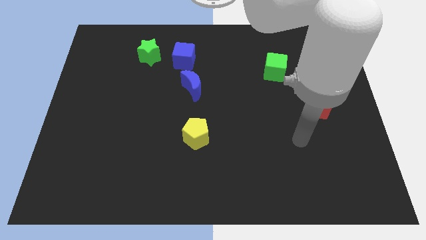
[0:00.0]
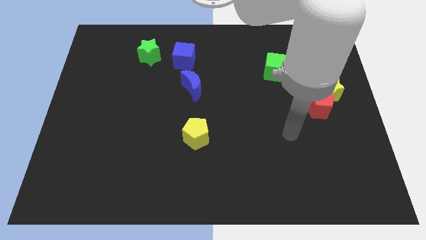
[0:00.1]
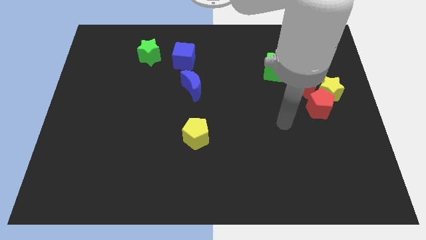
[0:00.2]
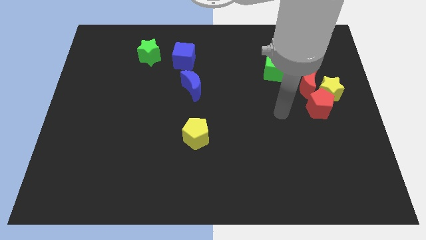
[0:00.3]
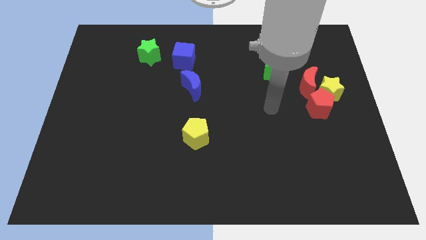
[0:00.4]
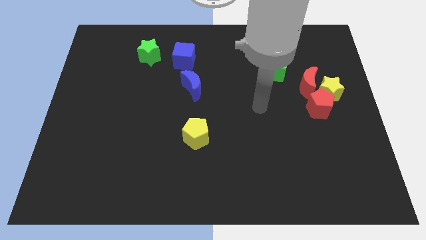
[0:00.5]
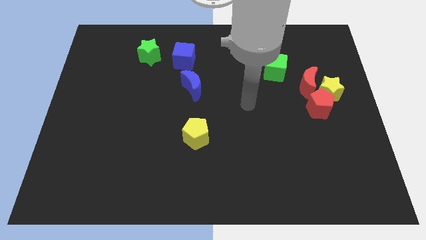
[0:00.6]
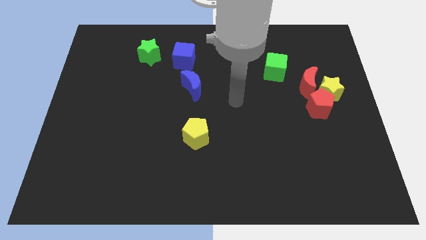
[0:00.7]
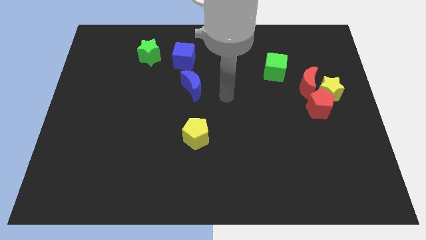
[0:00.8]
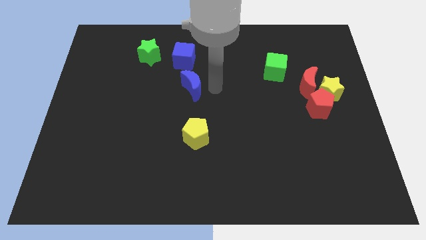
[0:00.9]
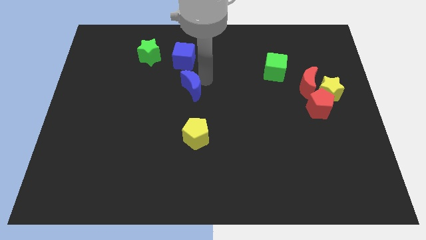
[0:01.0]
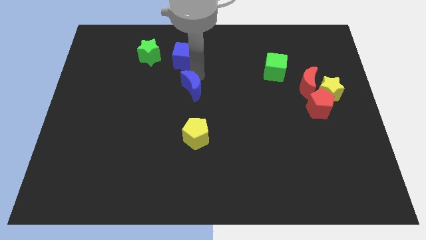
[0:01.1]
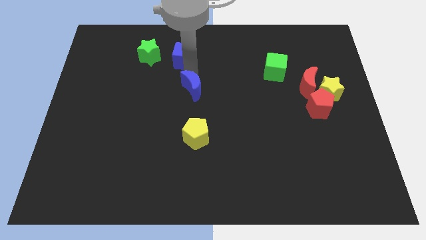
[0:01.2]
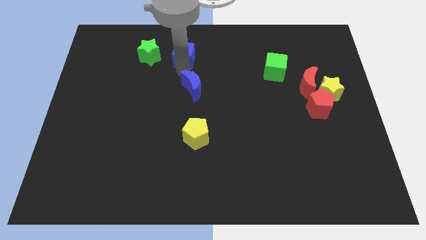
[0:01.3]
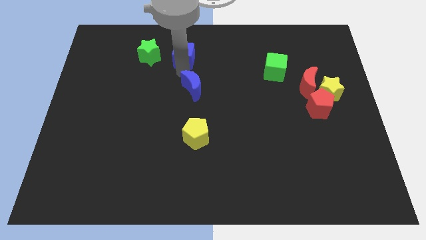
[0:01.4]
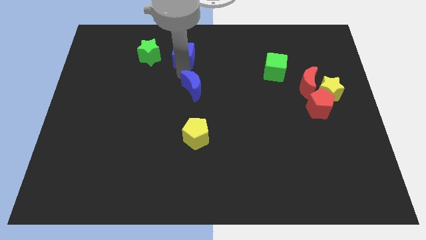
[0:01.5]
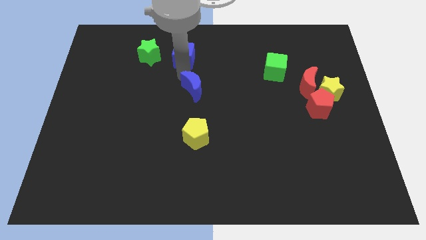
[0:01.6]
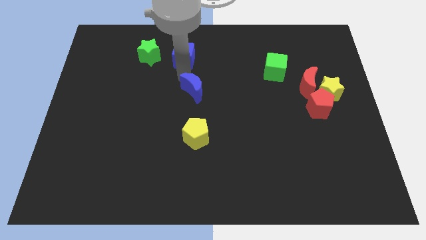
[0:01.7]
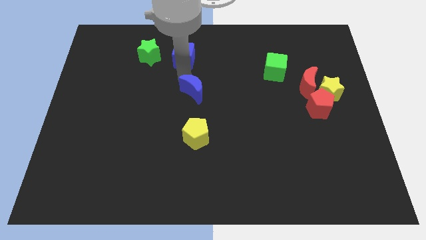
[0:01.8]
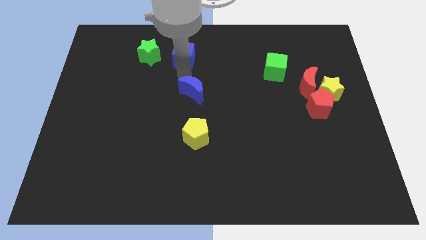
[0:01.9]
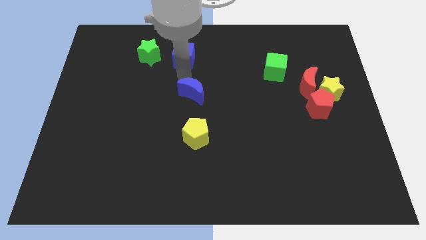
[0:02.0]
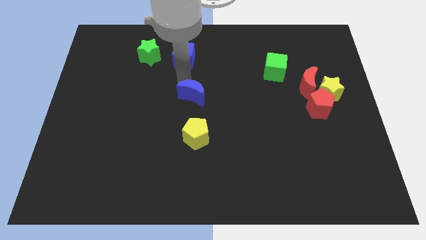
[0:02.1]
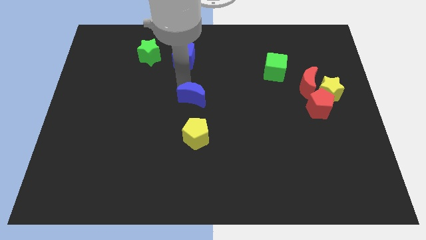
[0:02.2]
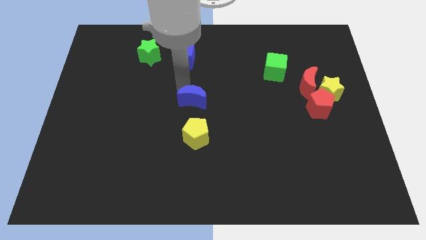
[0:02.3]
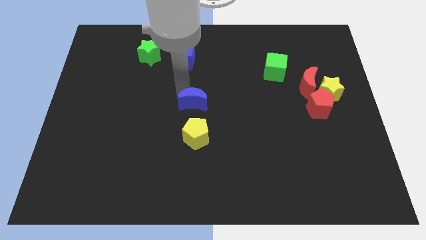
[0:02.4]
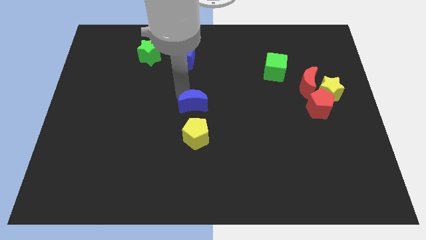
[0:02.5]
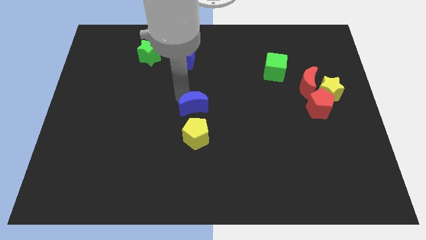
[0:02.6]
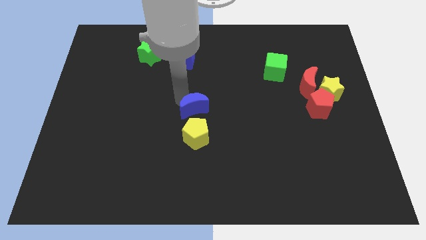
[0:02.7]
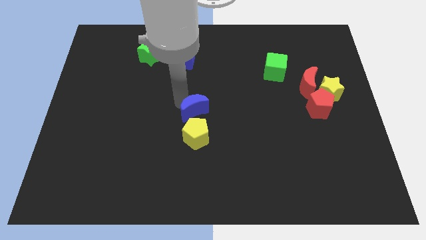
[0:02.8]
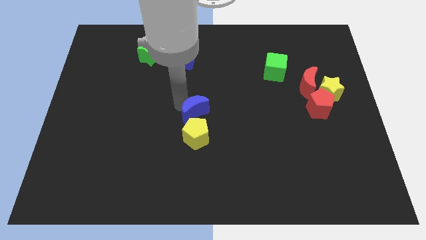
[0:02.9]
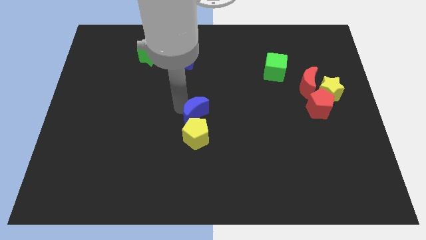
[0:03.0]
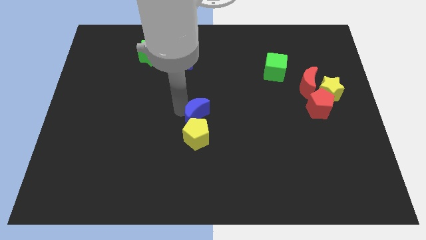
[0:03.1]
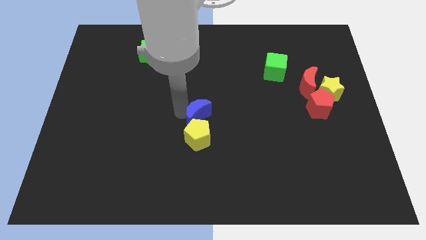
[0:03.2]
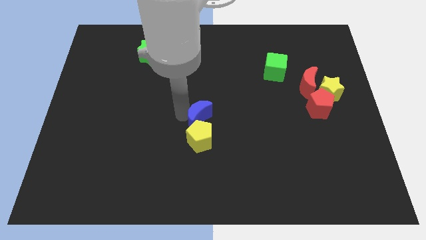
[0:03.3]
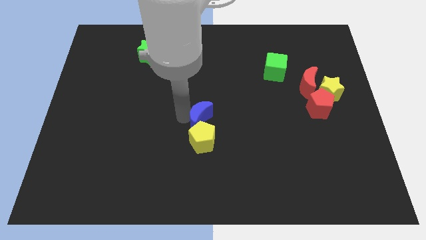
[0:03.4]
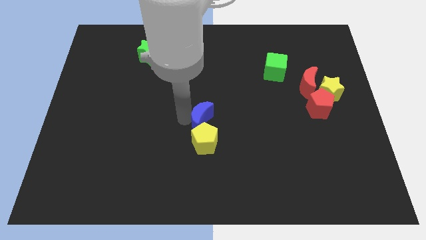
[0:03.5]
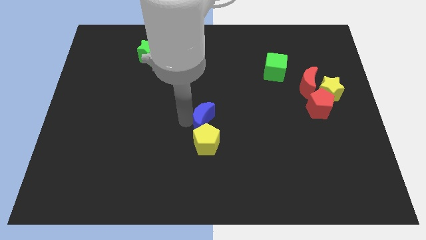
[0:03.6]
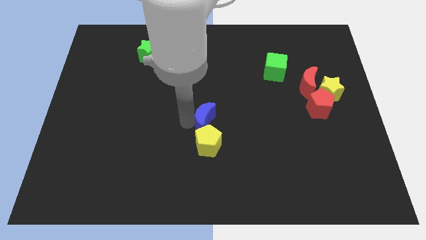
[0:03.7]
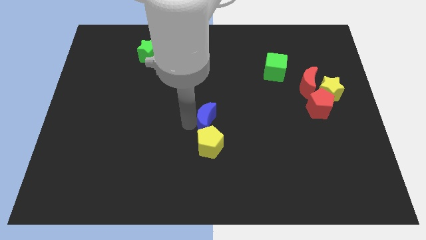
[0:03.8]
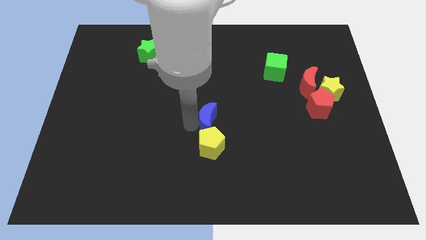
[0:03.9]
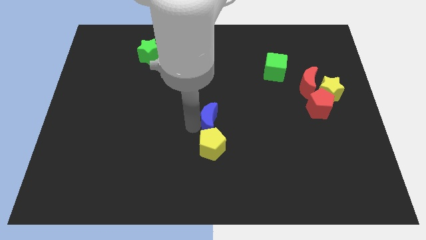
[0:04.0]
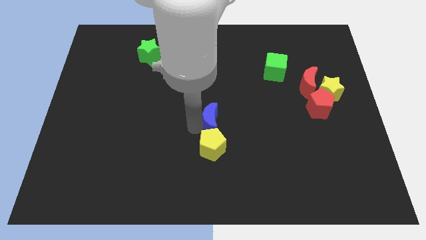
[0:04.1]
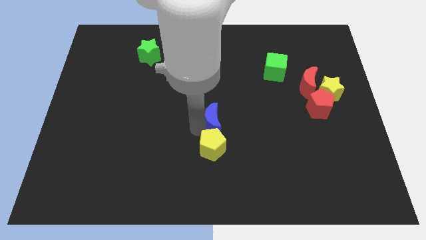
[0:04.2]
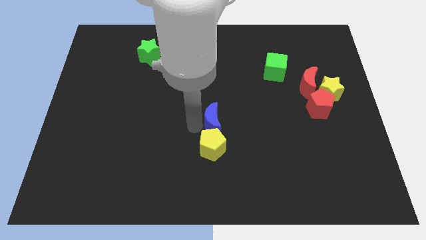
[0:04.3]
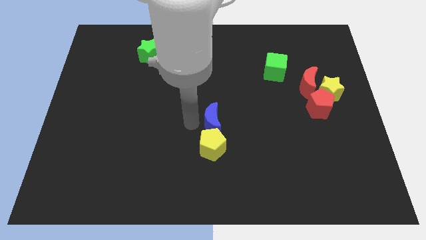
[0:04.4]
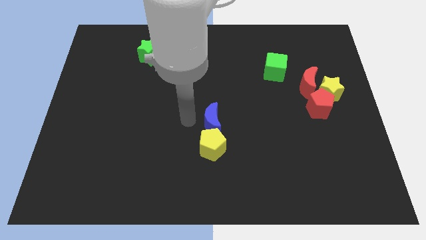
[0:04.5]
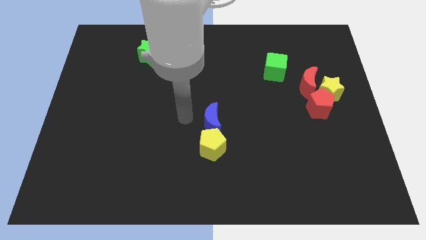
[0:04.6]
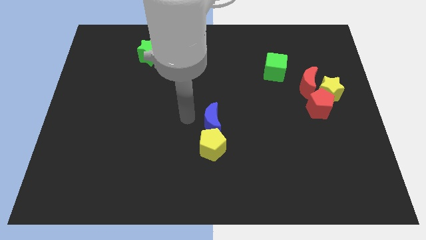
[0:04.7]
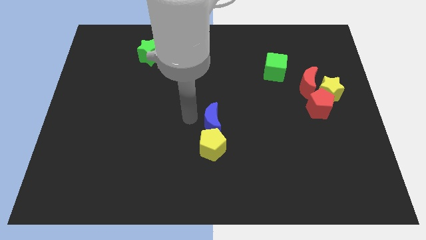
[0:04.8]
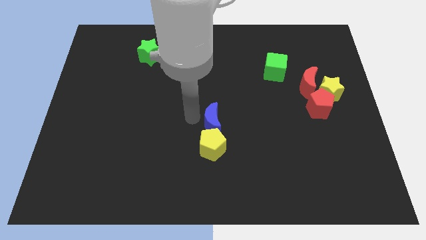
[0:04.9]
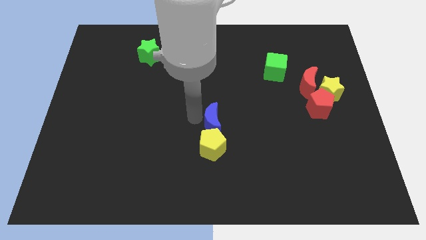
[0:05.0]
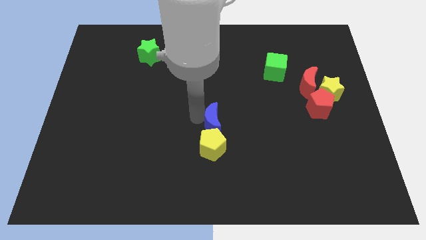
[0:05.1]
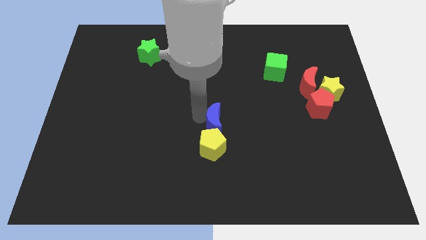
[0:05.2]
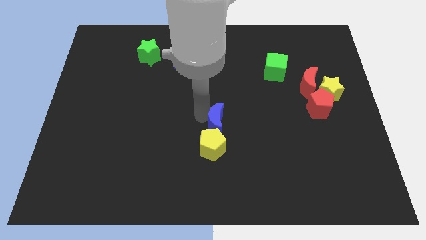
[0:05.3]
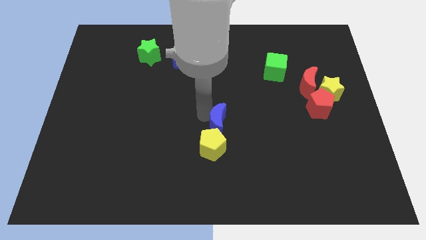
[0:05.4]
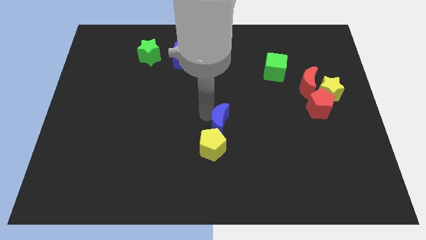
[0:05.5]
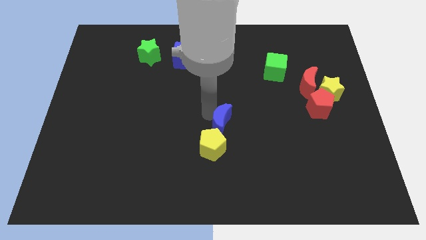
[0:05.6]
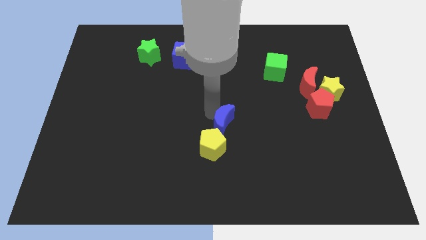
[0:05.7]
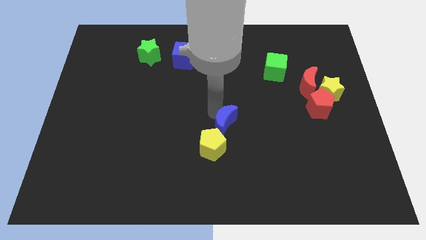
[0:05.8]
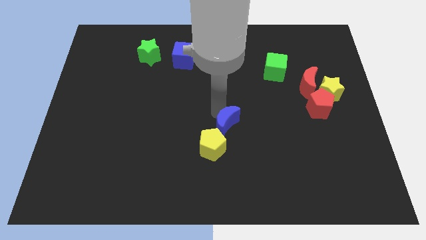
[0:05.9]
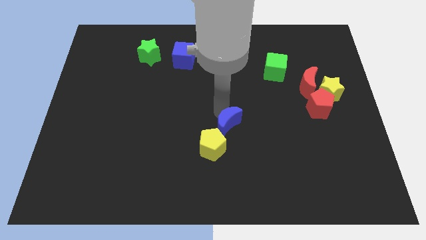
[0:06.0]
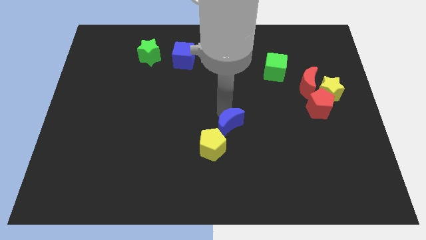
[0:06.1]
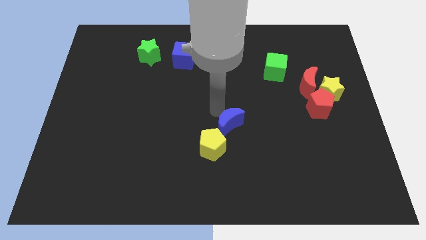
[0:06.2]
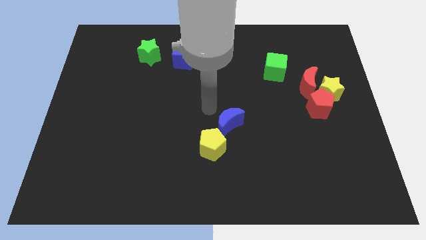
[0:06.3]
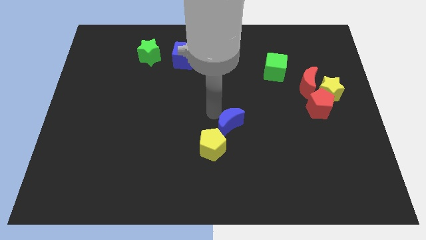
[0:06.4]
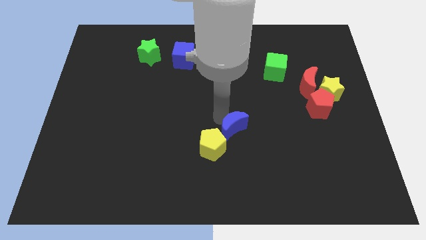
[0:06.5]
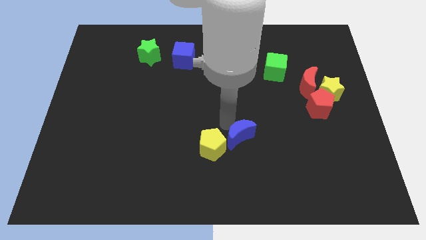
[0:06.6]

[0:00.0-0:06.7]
push the blue moon just right of the yellow pentagon

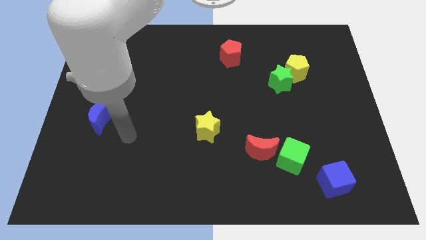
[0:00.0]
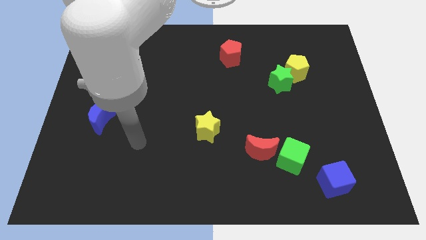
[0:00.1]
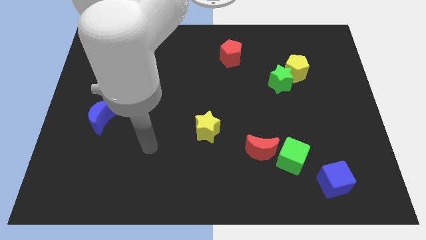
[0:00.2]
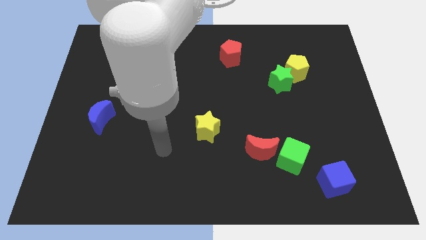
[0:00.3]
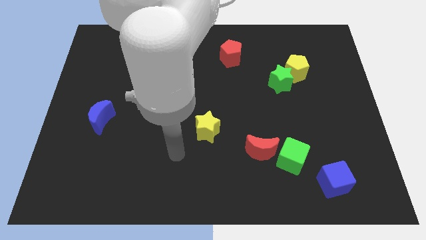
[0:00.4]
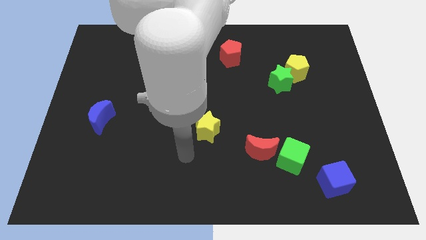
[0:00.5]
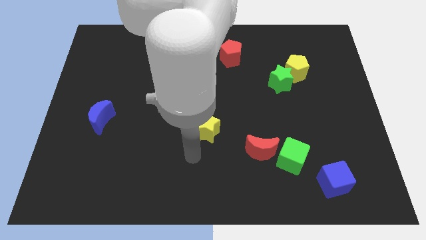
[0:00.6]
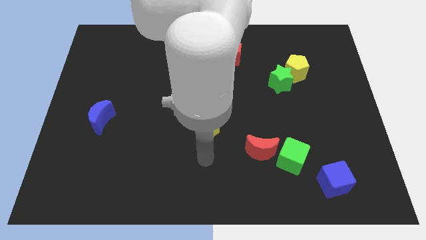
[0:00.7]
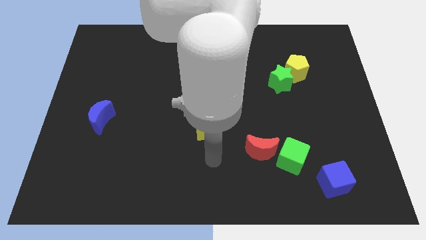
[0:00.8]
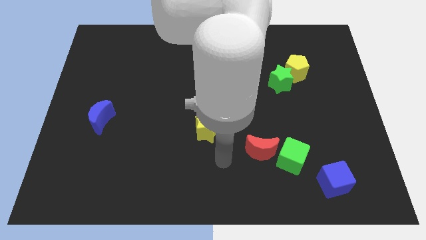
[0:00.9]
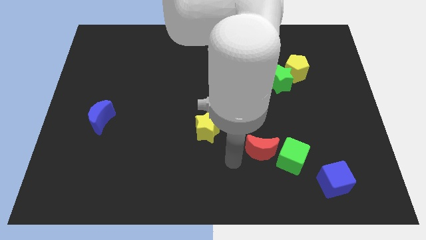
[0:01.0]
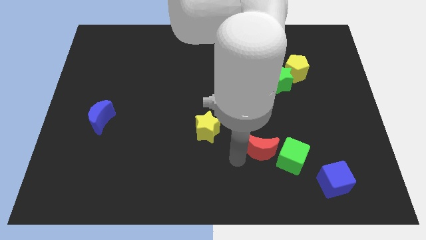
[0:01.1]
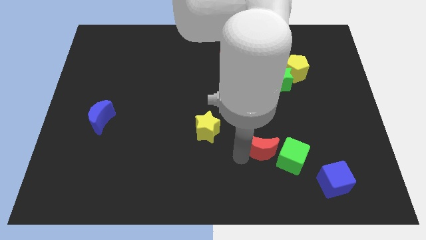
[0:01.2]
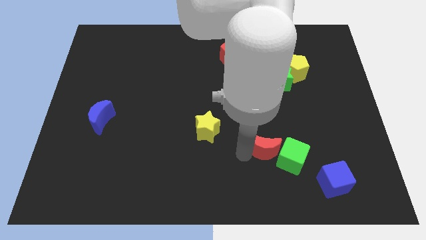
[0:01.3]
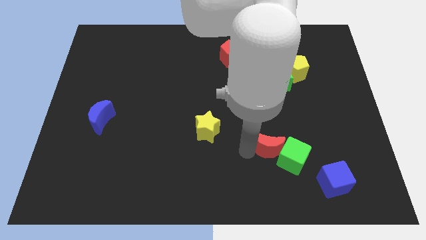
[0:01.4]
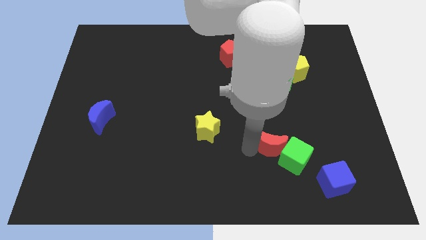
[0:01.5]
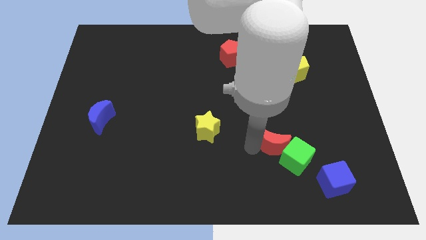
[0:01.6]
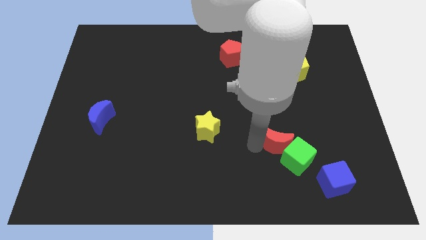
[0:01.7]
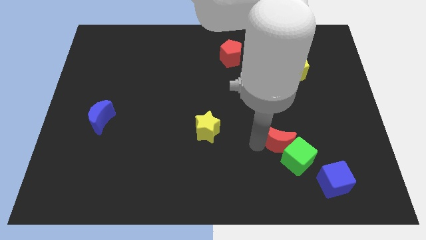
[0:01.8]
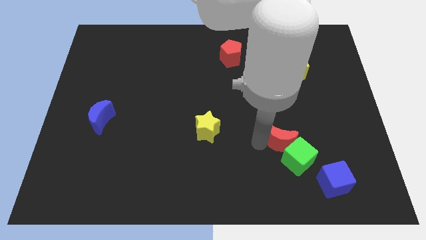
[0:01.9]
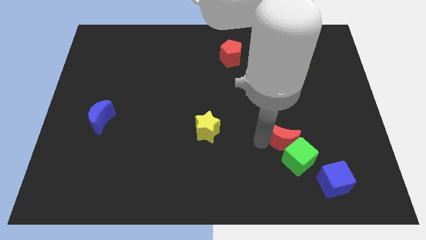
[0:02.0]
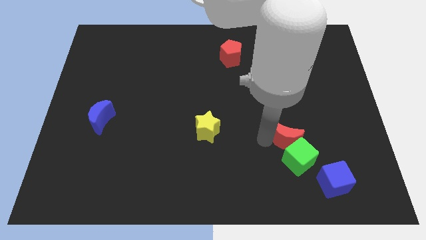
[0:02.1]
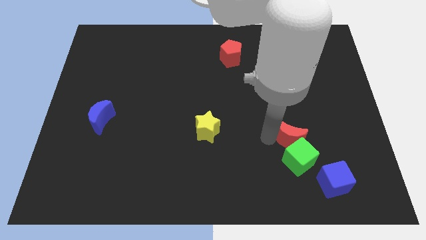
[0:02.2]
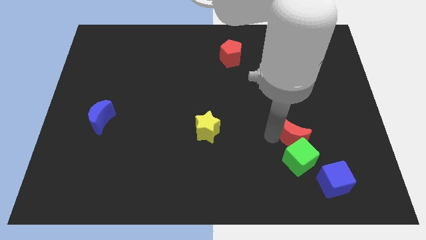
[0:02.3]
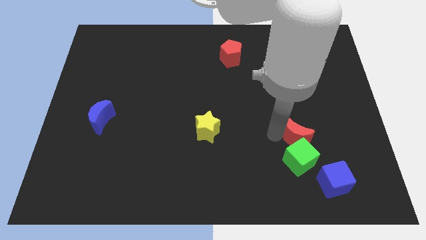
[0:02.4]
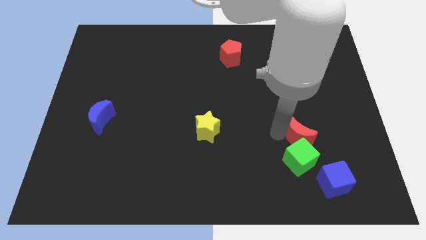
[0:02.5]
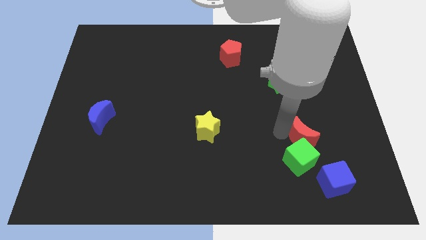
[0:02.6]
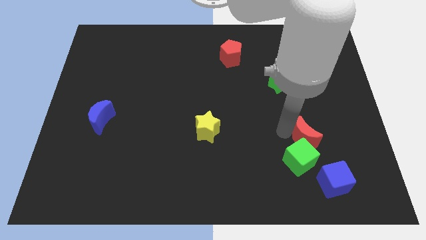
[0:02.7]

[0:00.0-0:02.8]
push the red moon to the top of the blue cube
